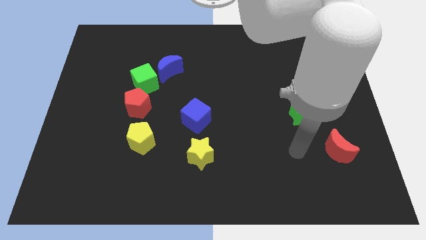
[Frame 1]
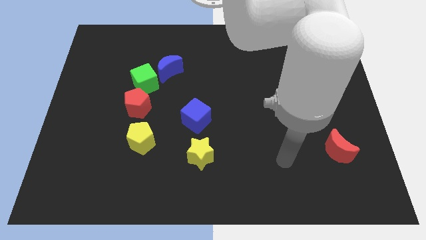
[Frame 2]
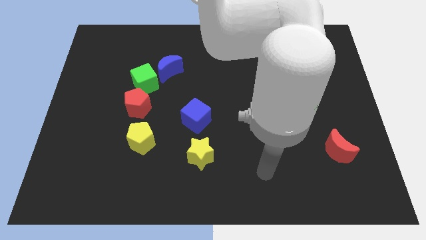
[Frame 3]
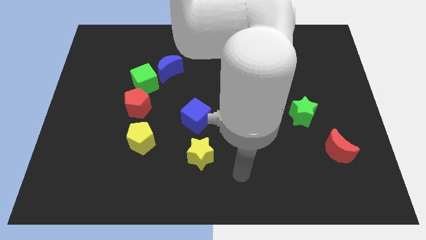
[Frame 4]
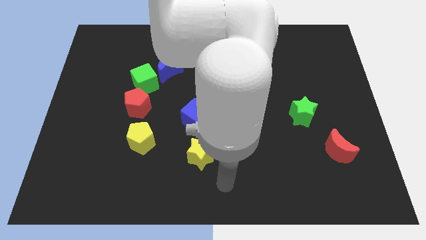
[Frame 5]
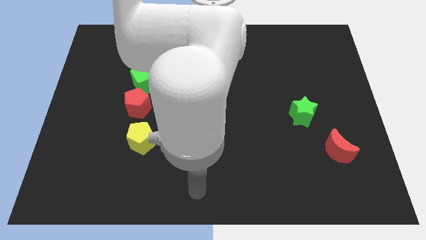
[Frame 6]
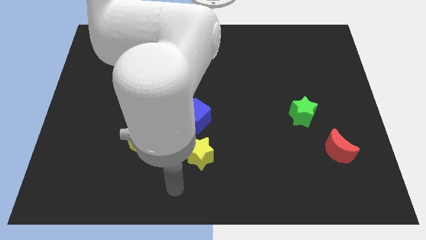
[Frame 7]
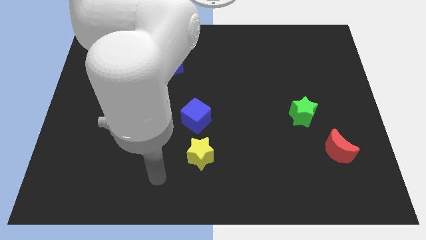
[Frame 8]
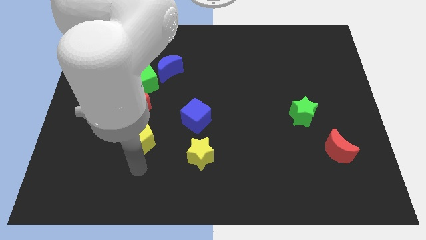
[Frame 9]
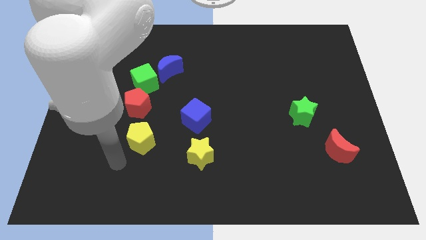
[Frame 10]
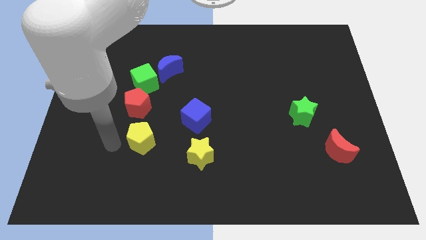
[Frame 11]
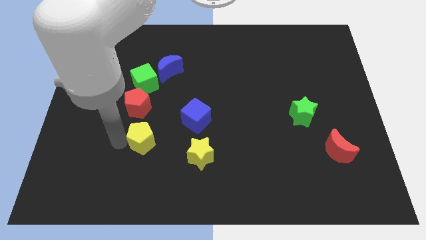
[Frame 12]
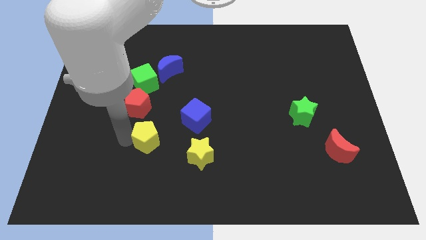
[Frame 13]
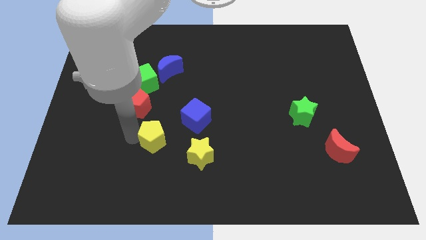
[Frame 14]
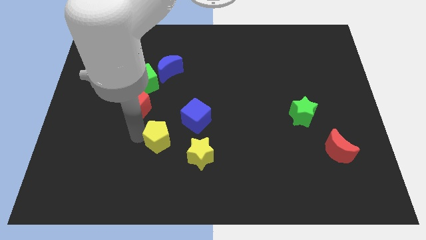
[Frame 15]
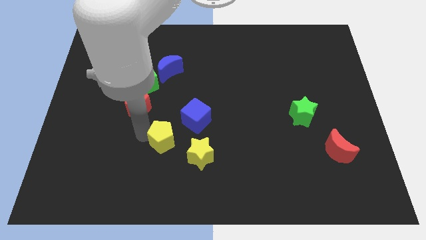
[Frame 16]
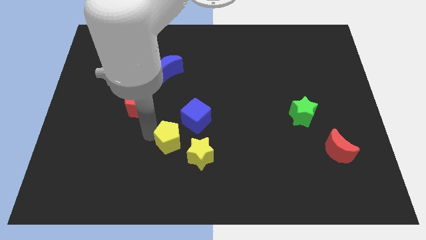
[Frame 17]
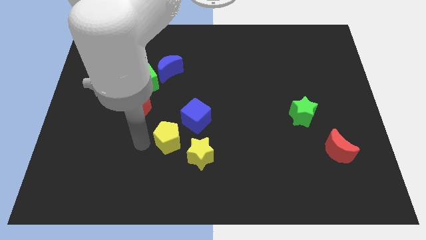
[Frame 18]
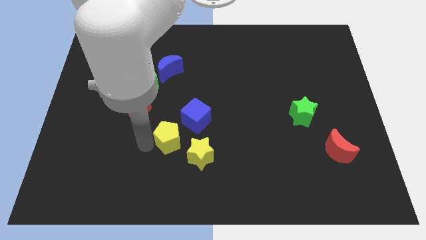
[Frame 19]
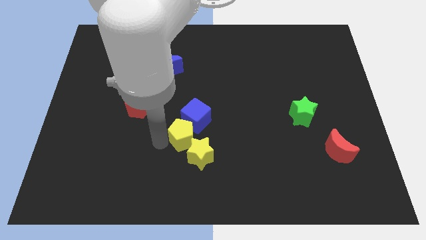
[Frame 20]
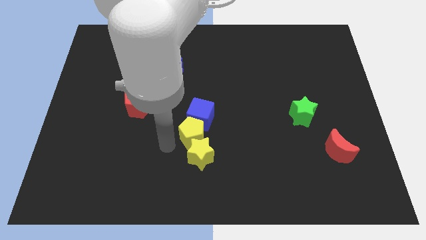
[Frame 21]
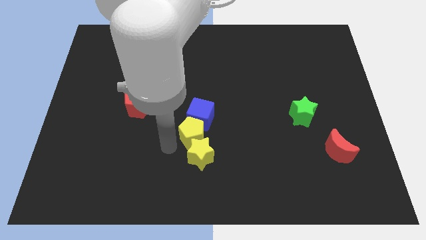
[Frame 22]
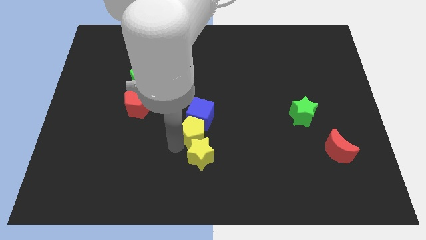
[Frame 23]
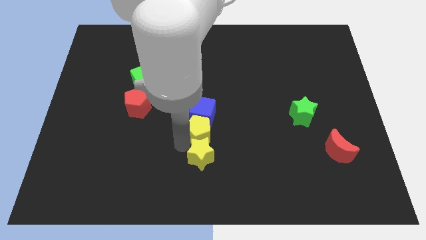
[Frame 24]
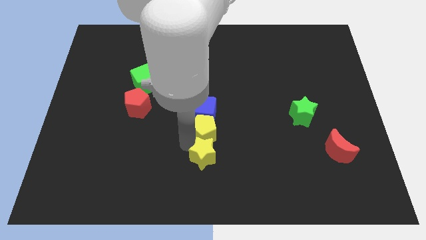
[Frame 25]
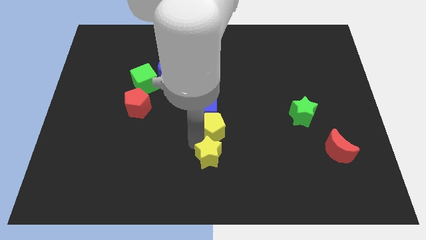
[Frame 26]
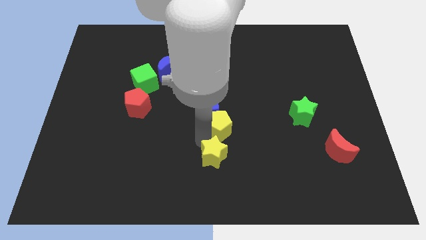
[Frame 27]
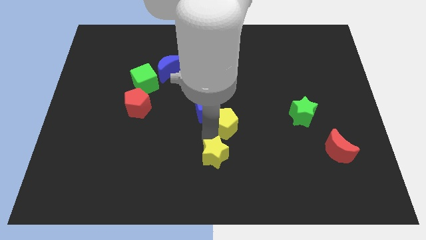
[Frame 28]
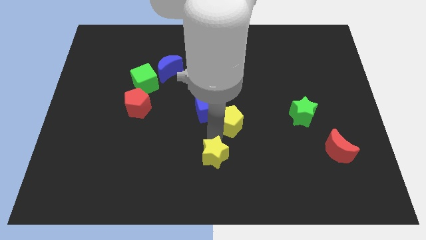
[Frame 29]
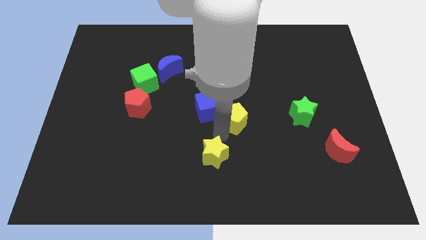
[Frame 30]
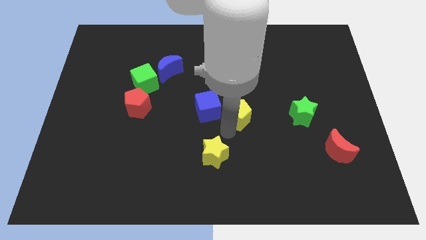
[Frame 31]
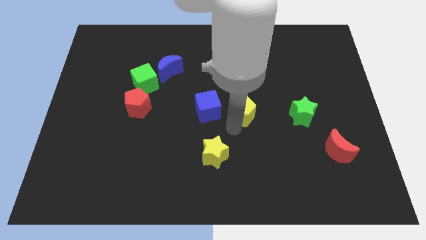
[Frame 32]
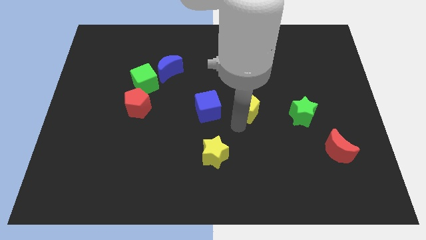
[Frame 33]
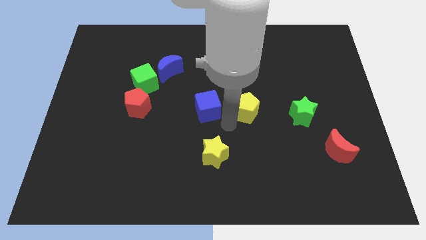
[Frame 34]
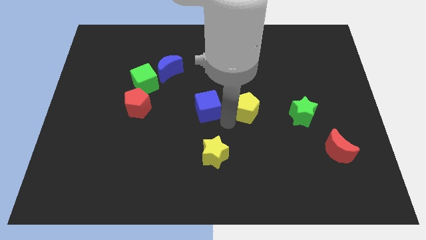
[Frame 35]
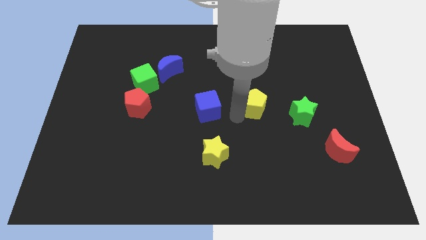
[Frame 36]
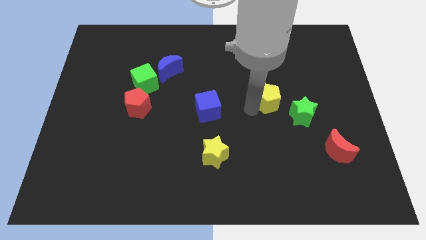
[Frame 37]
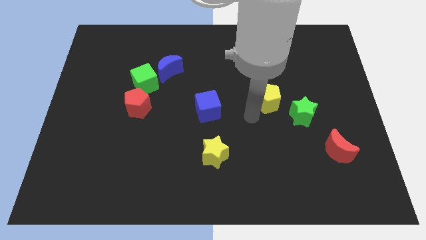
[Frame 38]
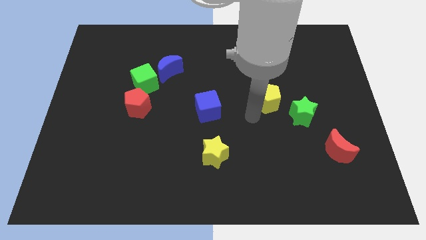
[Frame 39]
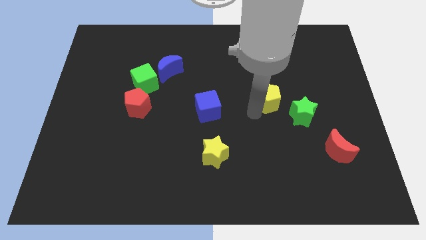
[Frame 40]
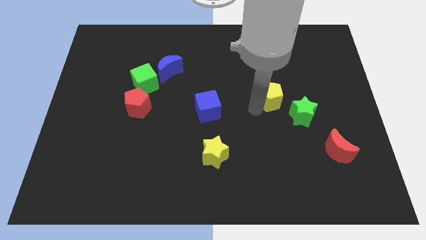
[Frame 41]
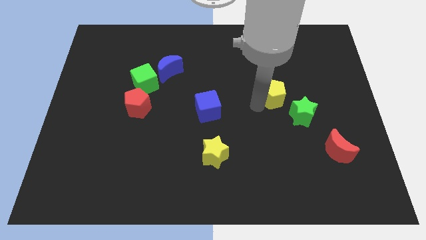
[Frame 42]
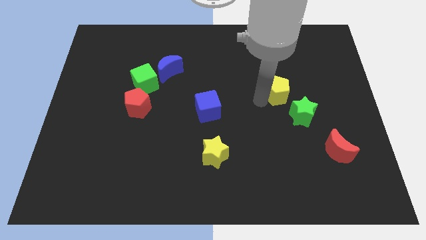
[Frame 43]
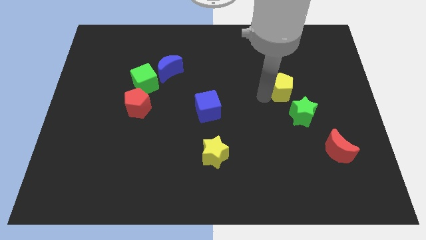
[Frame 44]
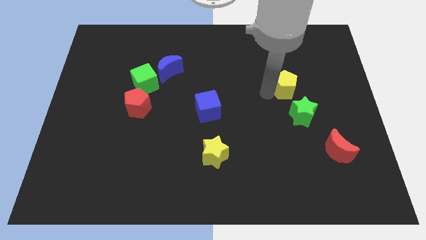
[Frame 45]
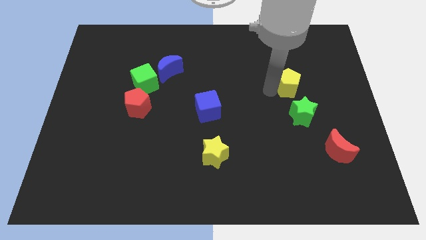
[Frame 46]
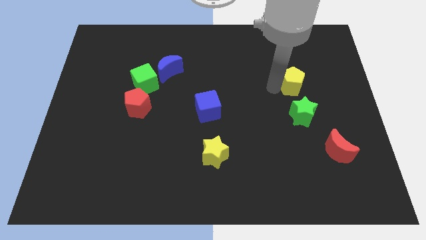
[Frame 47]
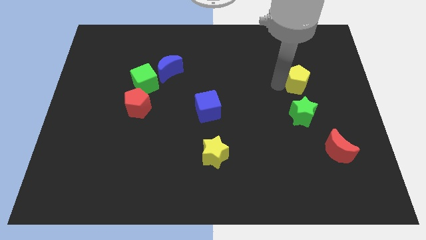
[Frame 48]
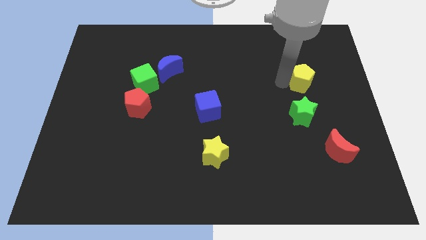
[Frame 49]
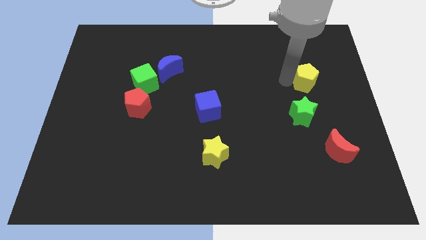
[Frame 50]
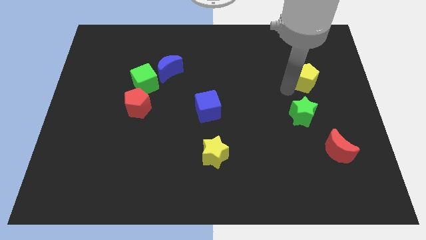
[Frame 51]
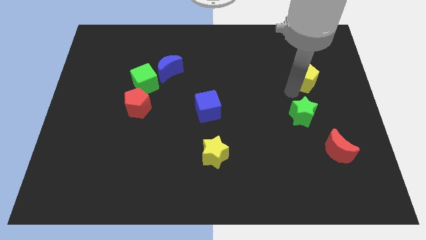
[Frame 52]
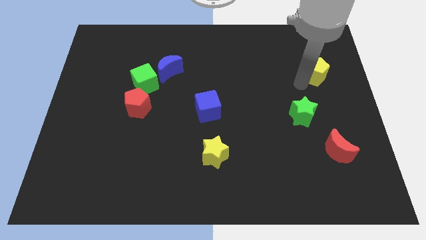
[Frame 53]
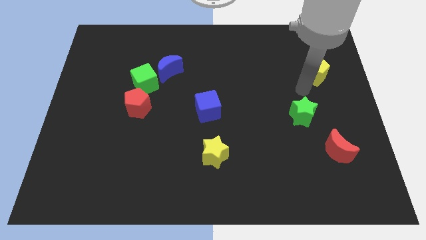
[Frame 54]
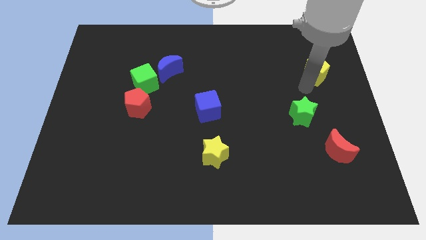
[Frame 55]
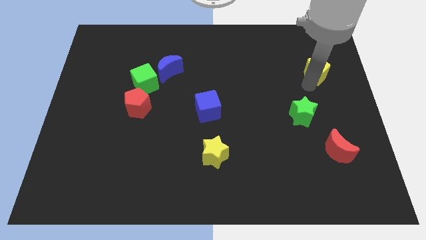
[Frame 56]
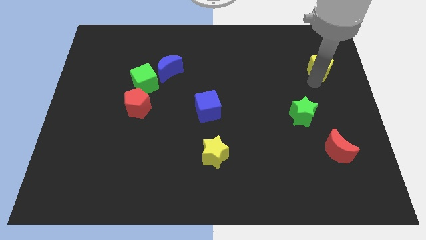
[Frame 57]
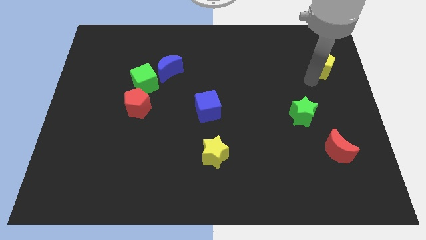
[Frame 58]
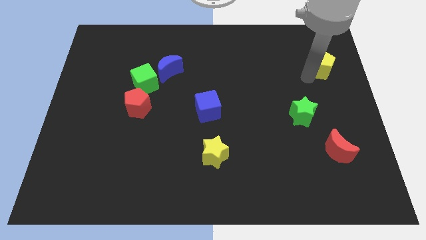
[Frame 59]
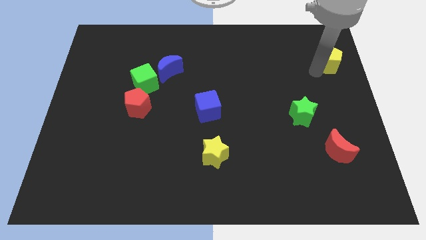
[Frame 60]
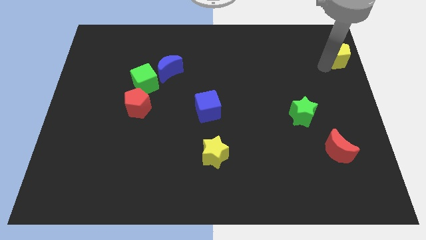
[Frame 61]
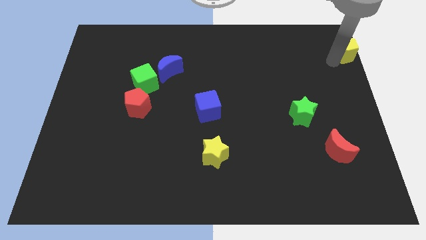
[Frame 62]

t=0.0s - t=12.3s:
slide the yellow pentagon to the upper right corner
